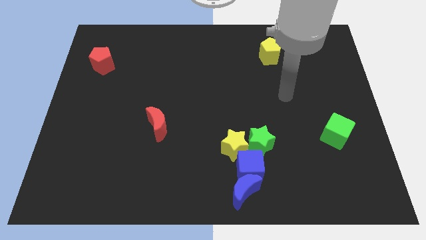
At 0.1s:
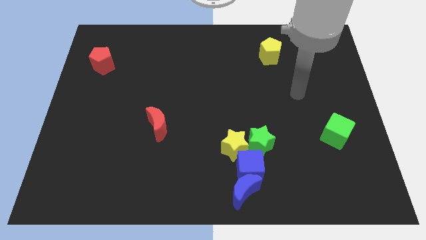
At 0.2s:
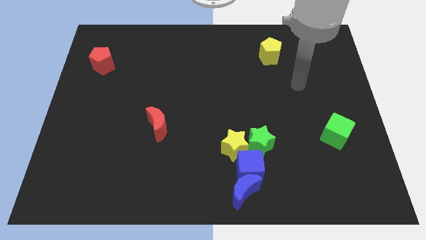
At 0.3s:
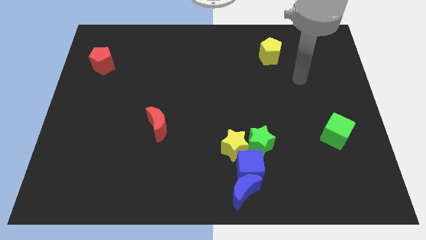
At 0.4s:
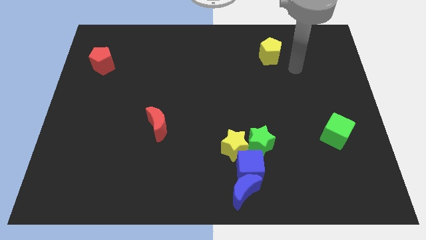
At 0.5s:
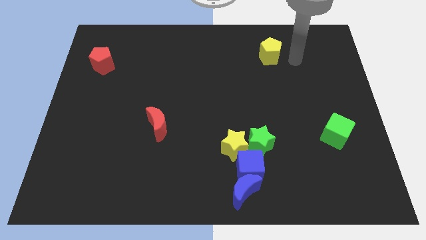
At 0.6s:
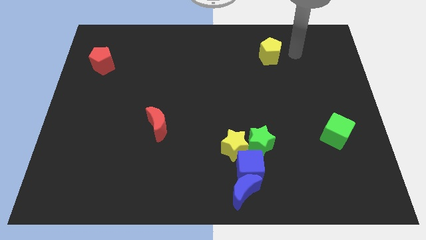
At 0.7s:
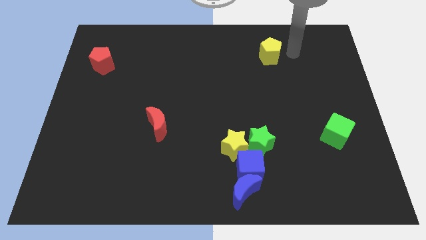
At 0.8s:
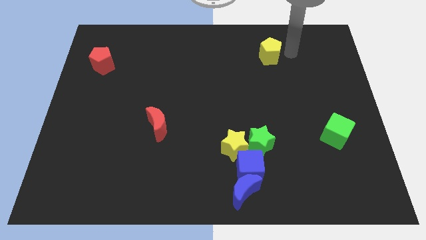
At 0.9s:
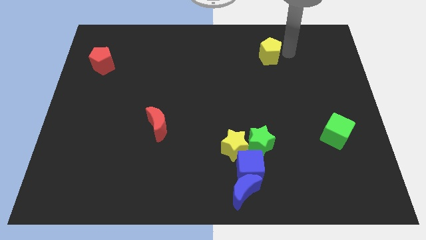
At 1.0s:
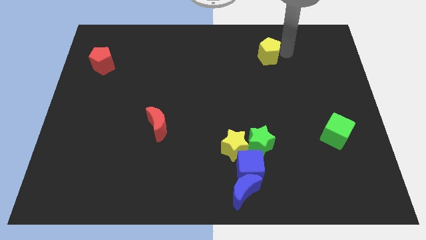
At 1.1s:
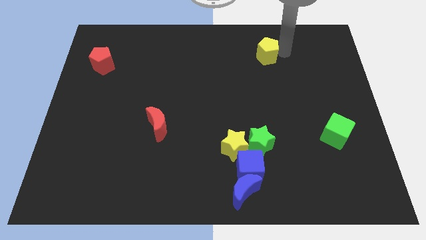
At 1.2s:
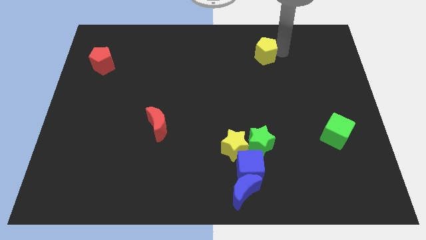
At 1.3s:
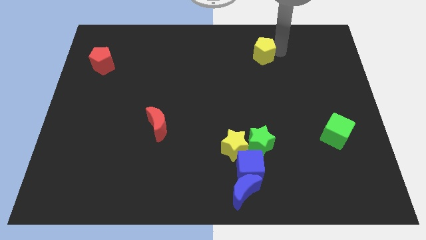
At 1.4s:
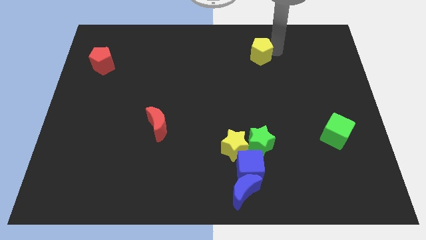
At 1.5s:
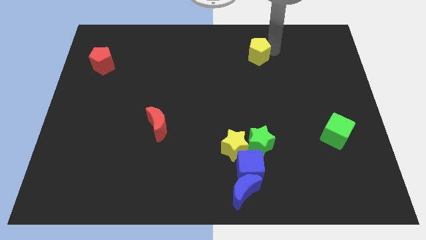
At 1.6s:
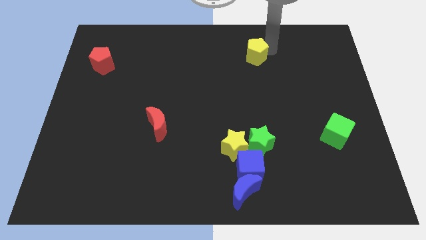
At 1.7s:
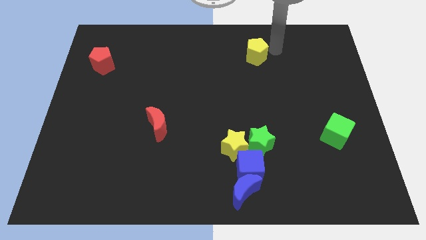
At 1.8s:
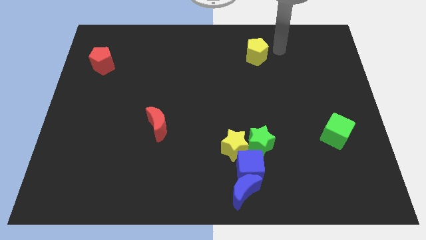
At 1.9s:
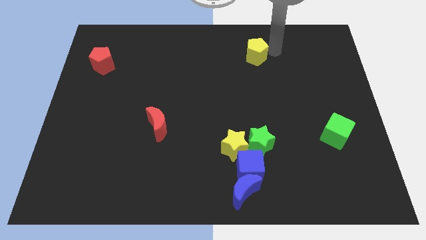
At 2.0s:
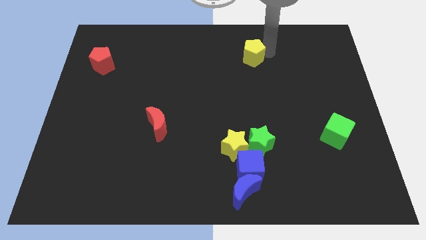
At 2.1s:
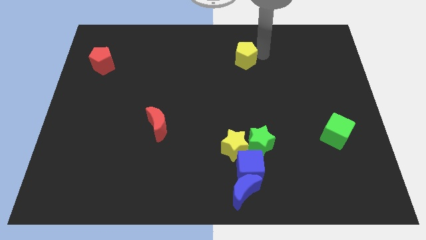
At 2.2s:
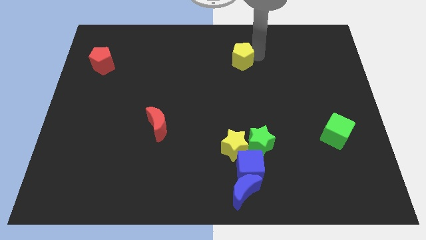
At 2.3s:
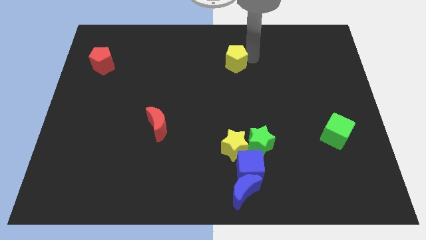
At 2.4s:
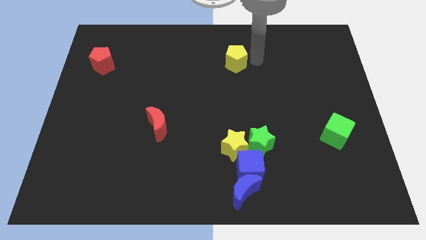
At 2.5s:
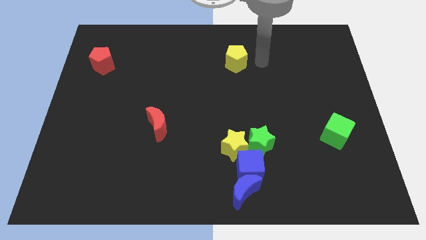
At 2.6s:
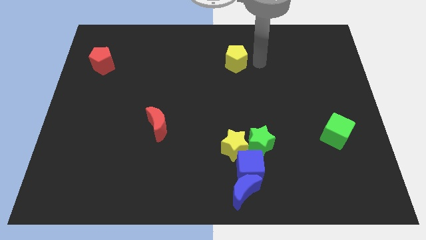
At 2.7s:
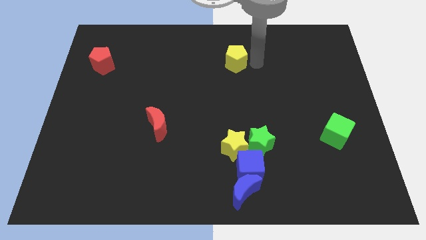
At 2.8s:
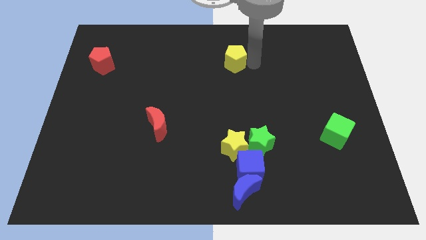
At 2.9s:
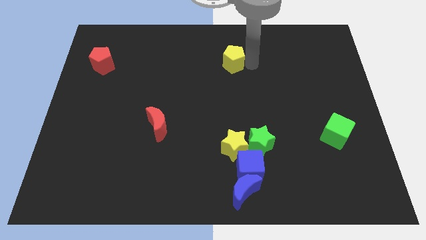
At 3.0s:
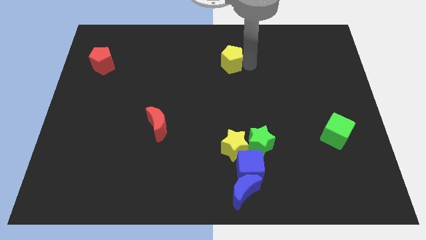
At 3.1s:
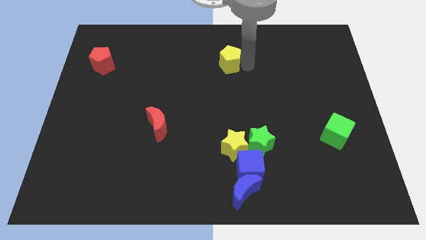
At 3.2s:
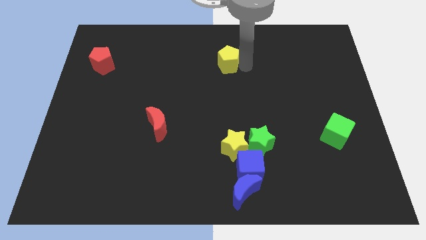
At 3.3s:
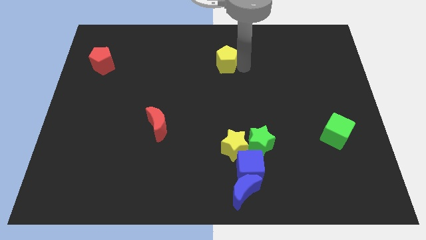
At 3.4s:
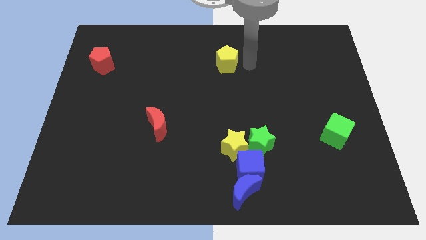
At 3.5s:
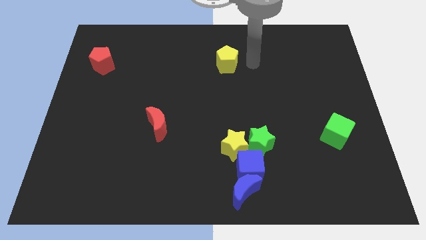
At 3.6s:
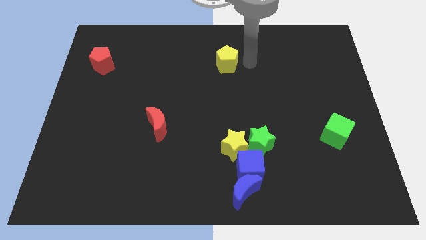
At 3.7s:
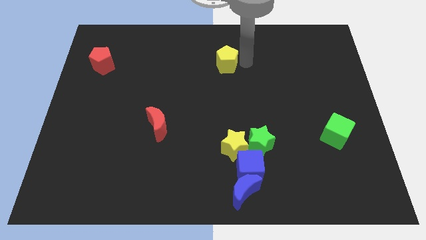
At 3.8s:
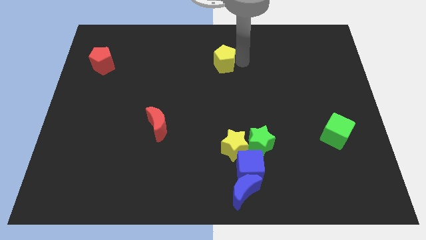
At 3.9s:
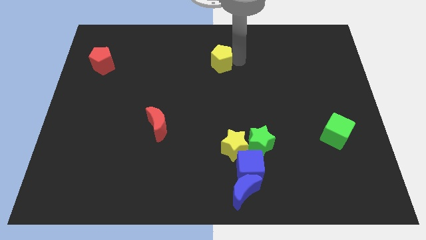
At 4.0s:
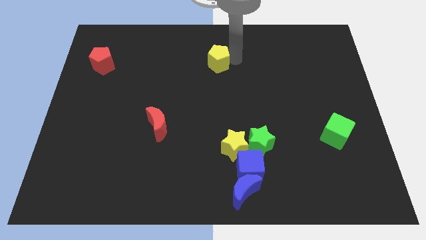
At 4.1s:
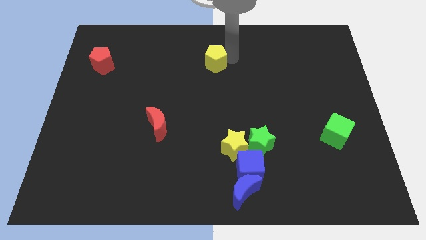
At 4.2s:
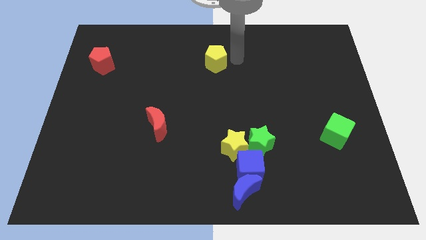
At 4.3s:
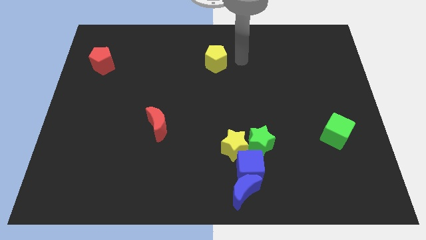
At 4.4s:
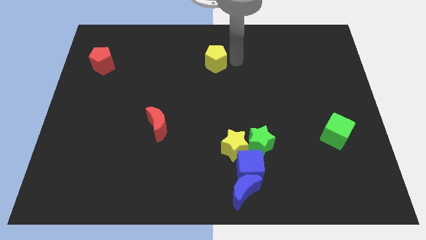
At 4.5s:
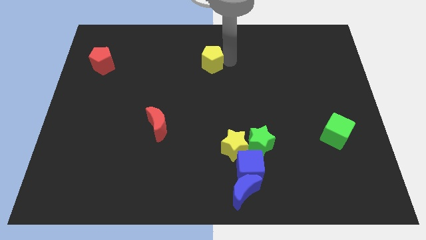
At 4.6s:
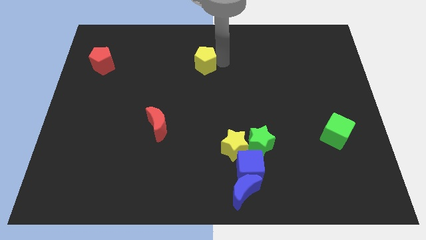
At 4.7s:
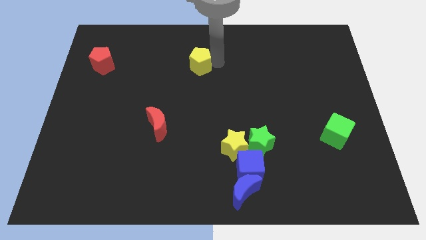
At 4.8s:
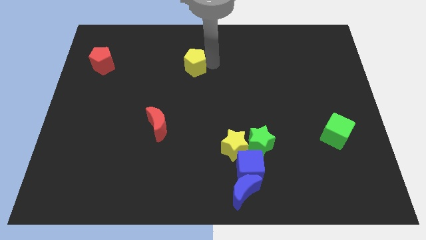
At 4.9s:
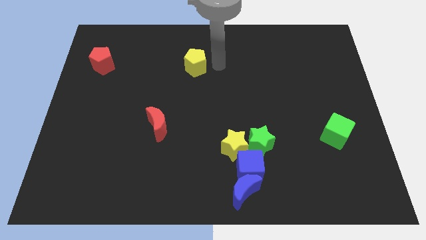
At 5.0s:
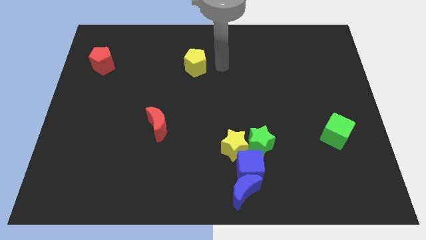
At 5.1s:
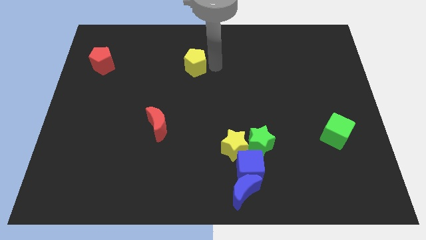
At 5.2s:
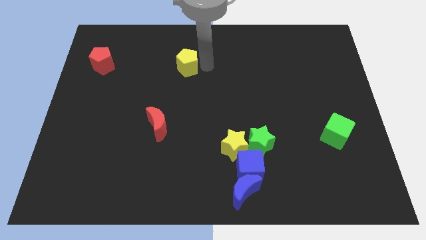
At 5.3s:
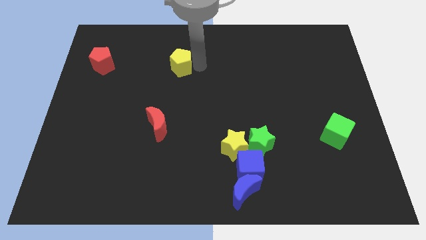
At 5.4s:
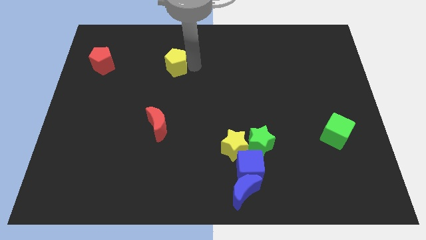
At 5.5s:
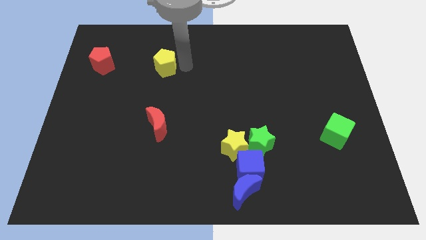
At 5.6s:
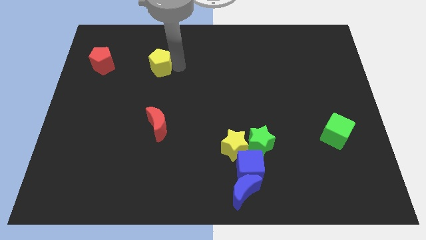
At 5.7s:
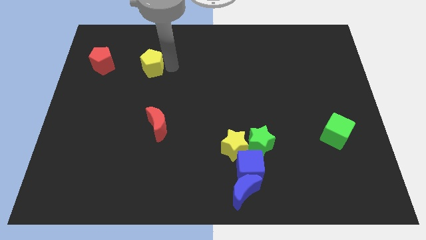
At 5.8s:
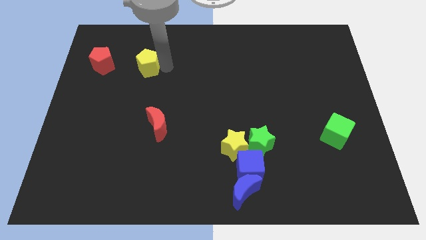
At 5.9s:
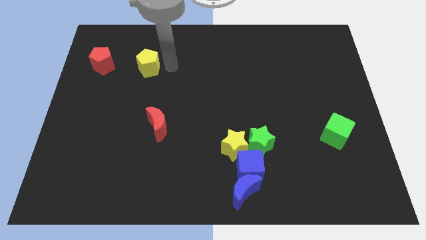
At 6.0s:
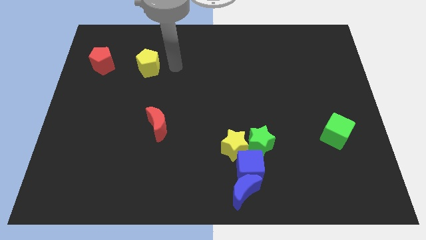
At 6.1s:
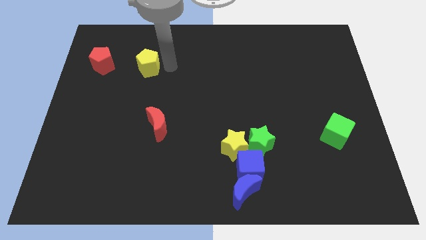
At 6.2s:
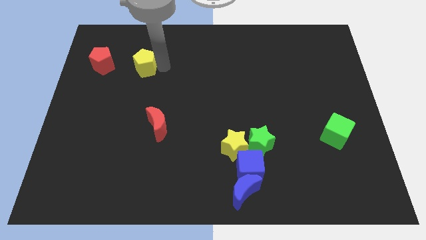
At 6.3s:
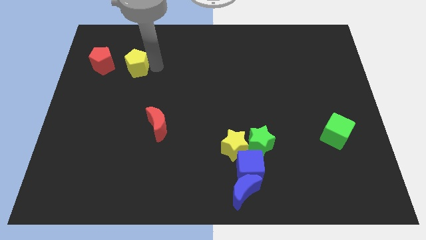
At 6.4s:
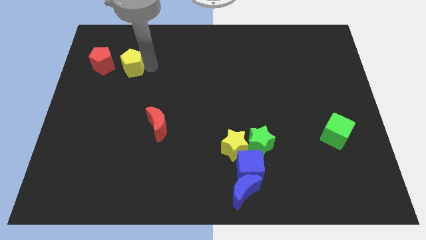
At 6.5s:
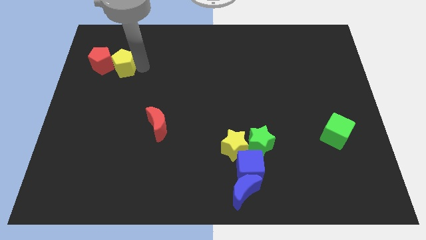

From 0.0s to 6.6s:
push the yellow pentagon next to the red pentagon

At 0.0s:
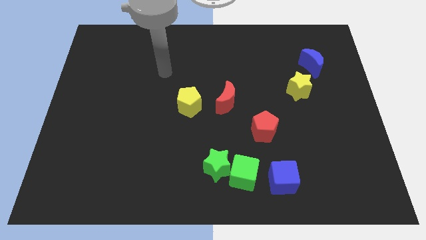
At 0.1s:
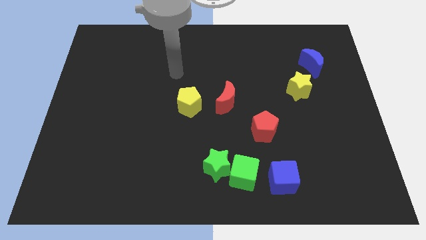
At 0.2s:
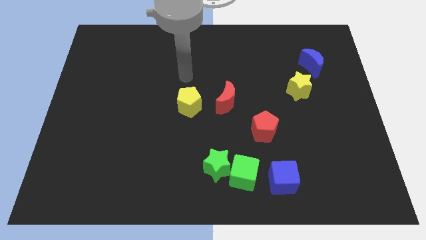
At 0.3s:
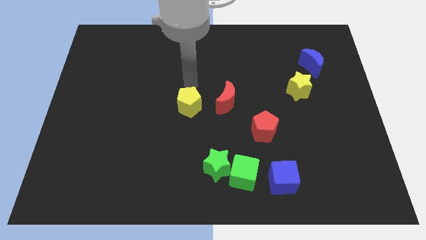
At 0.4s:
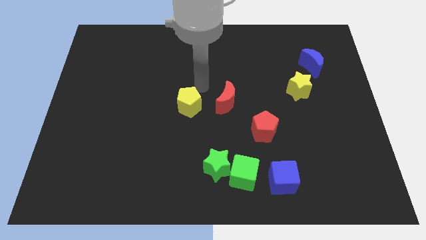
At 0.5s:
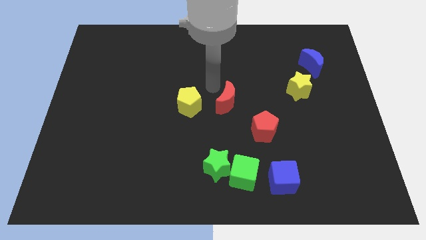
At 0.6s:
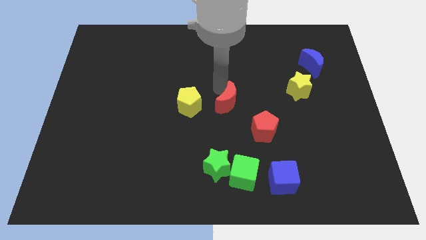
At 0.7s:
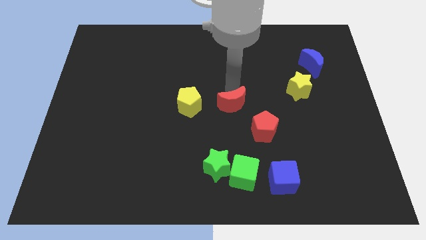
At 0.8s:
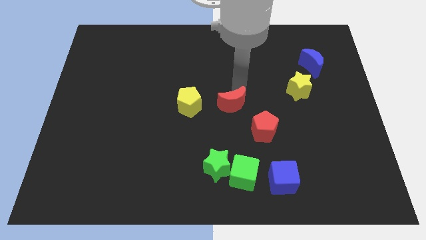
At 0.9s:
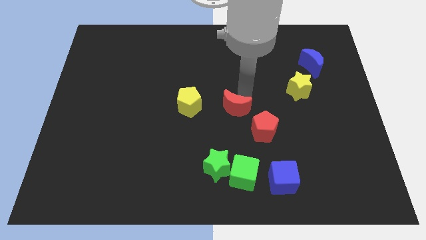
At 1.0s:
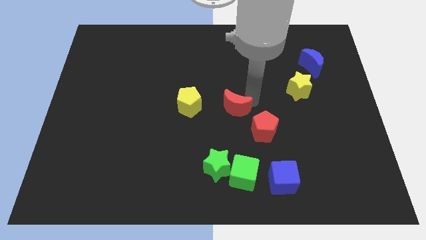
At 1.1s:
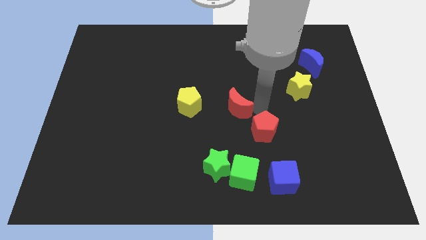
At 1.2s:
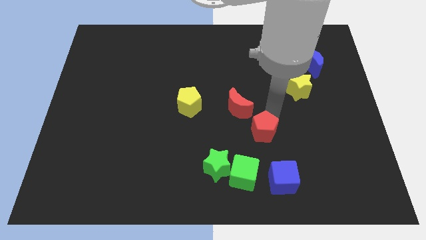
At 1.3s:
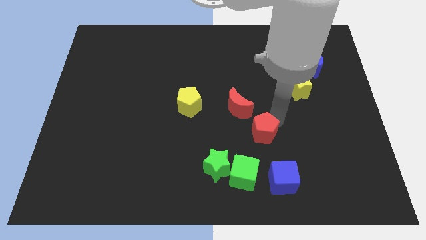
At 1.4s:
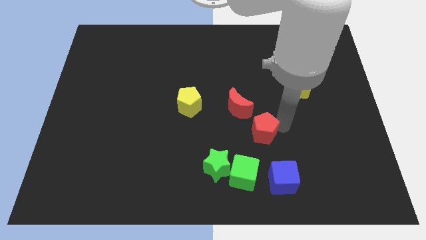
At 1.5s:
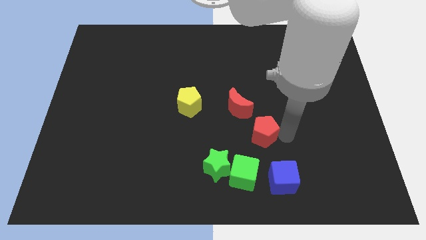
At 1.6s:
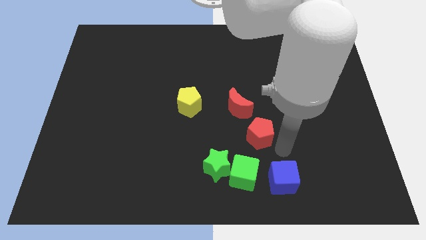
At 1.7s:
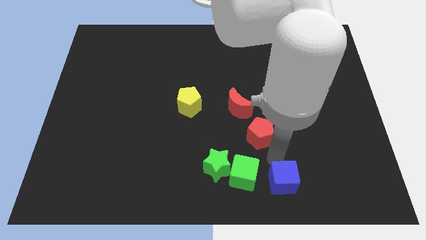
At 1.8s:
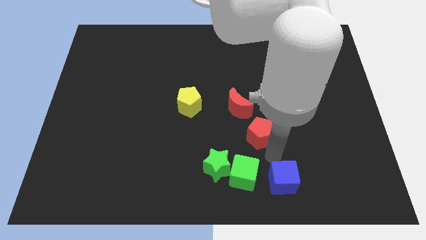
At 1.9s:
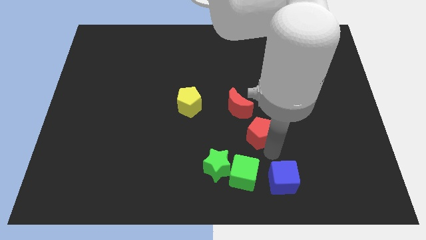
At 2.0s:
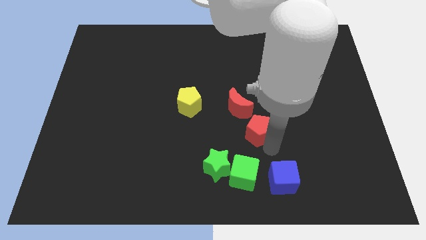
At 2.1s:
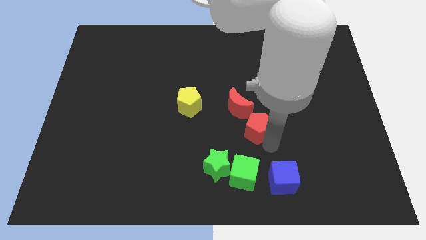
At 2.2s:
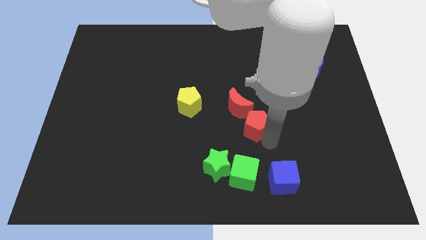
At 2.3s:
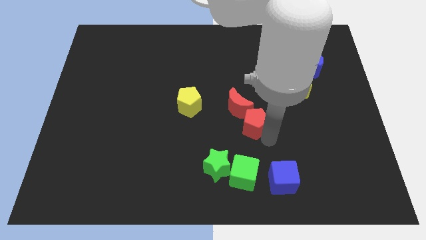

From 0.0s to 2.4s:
put the red pentagon towards the red moon
